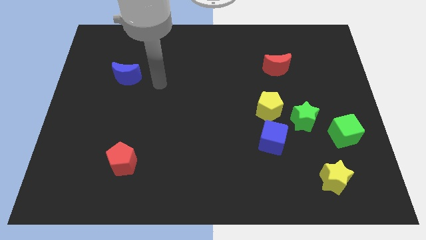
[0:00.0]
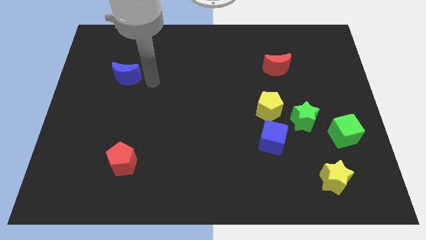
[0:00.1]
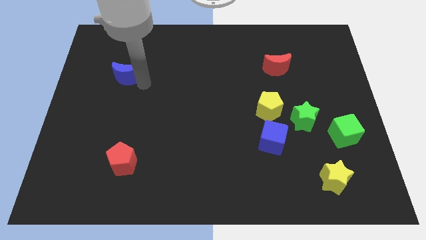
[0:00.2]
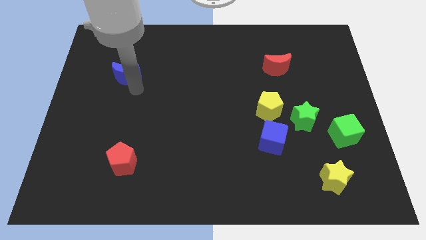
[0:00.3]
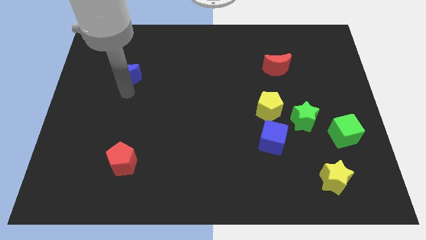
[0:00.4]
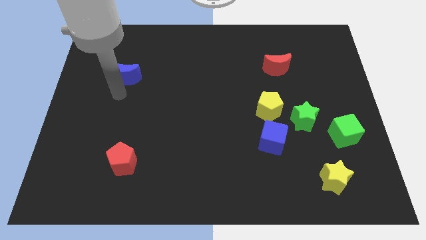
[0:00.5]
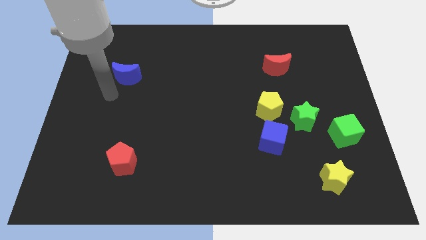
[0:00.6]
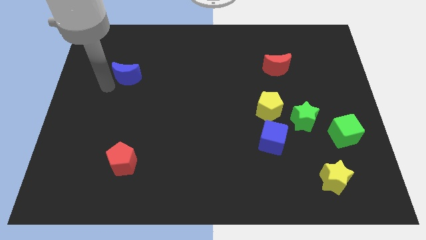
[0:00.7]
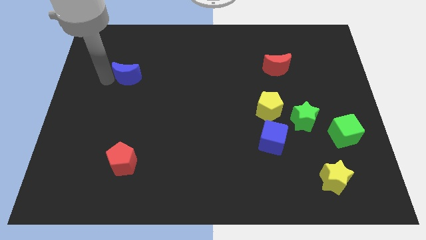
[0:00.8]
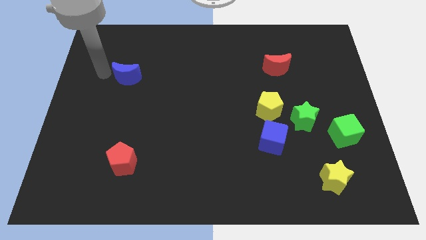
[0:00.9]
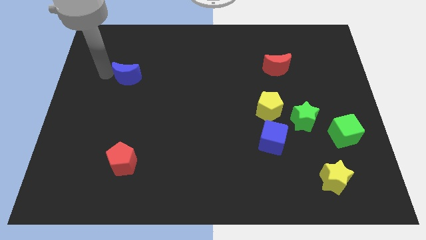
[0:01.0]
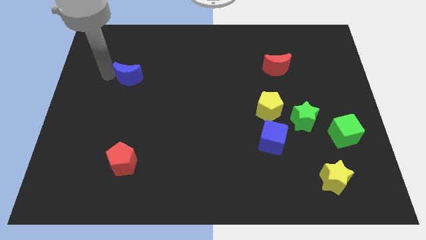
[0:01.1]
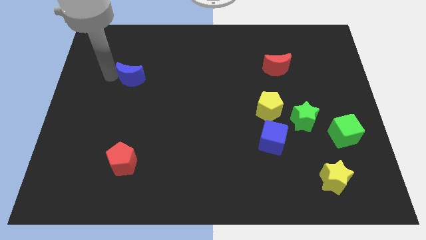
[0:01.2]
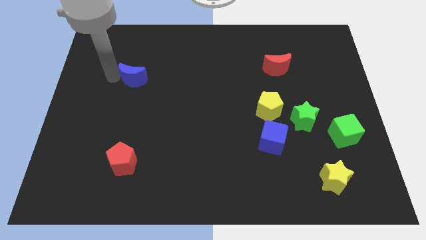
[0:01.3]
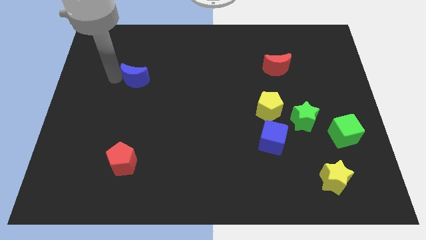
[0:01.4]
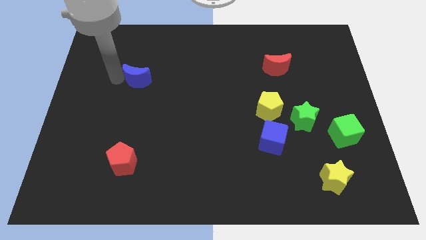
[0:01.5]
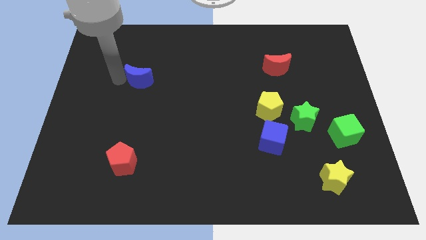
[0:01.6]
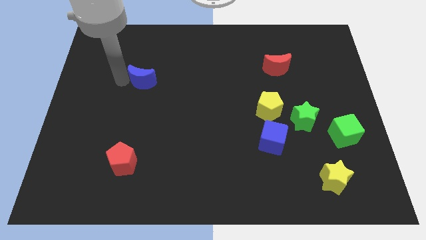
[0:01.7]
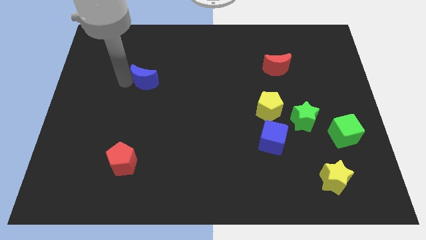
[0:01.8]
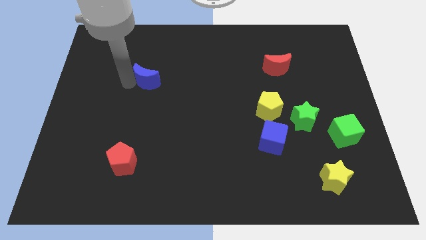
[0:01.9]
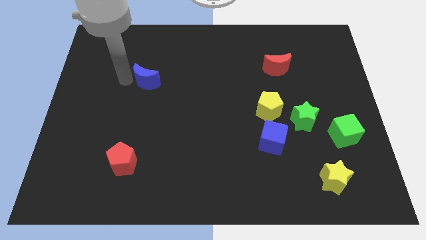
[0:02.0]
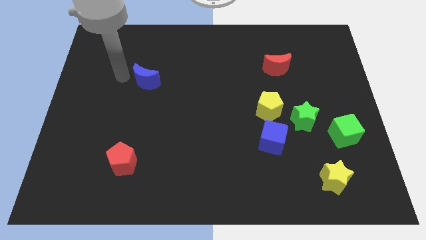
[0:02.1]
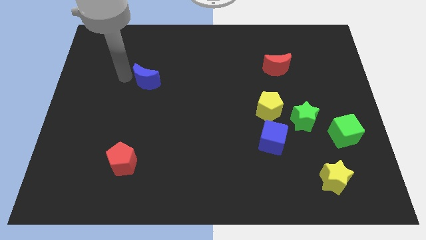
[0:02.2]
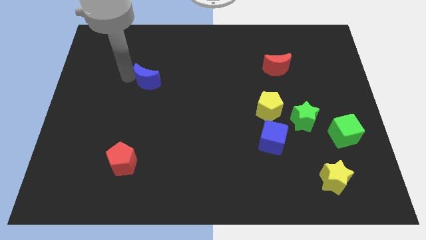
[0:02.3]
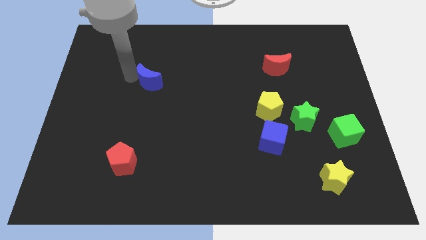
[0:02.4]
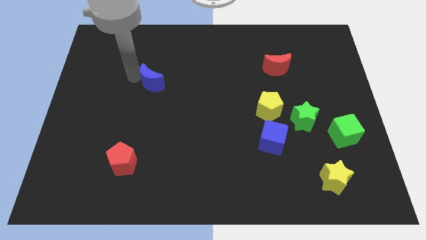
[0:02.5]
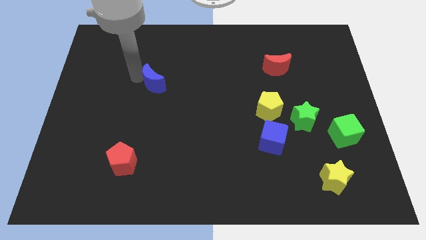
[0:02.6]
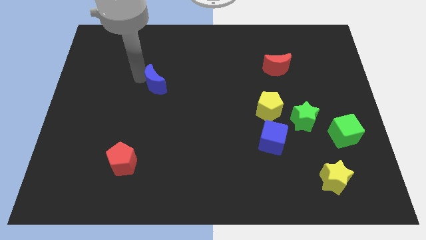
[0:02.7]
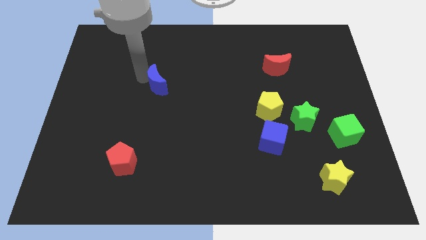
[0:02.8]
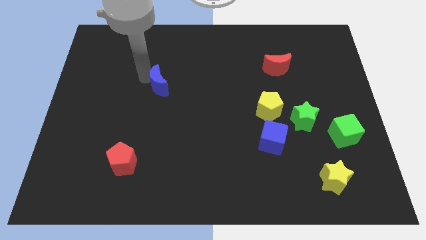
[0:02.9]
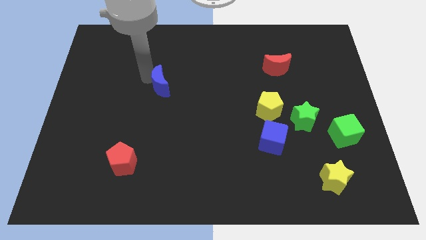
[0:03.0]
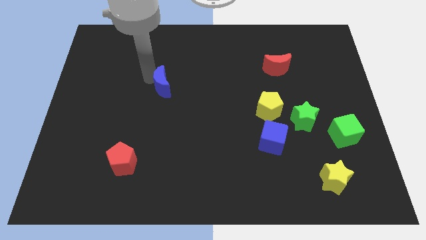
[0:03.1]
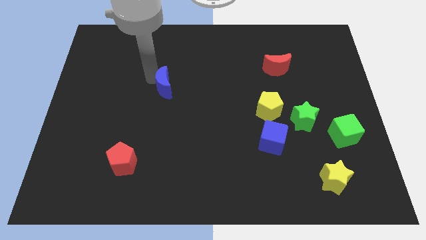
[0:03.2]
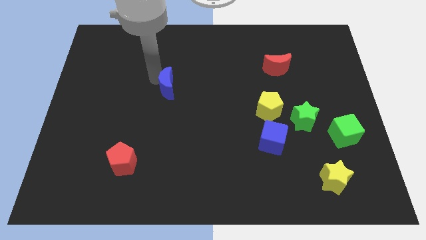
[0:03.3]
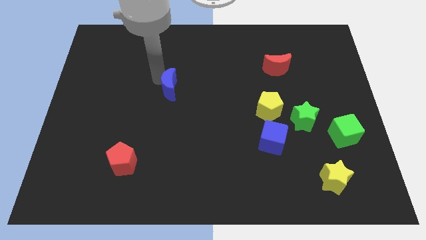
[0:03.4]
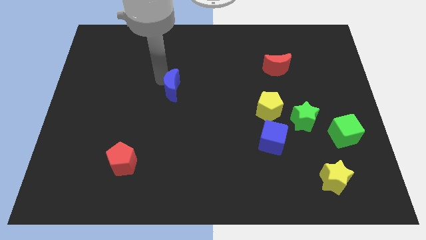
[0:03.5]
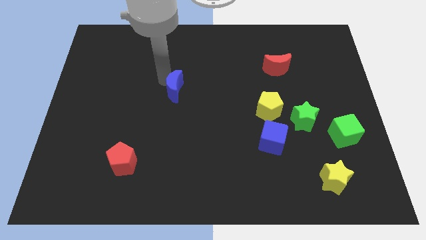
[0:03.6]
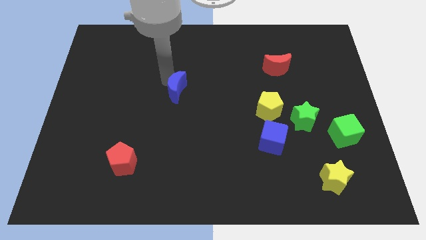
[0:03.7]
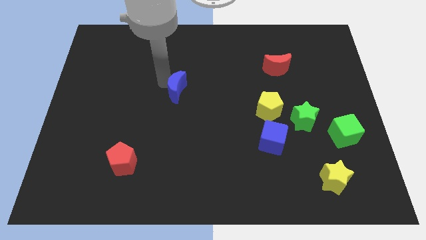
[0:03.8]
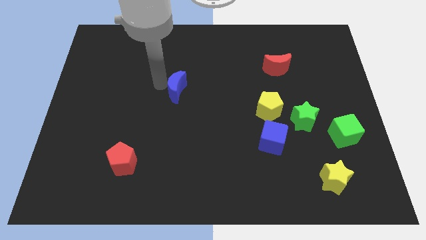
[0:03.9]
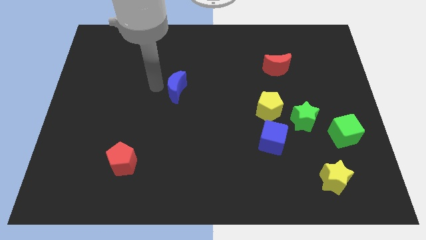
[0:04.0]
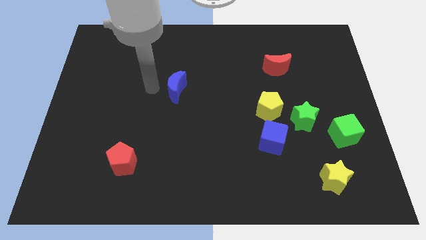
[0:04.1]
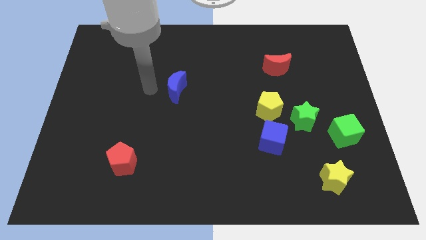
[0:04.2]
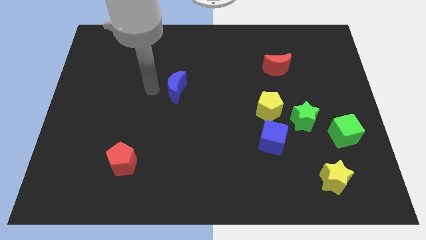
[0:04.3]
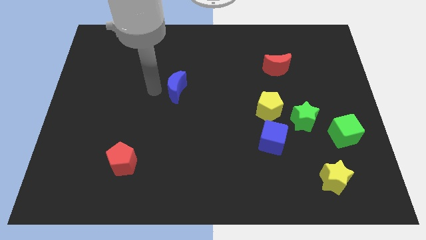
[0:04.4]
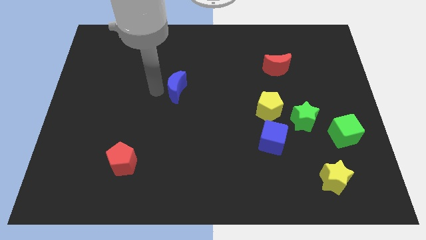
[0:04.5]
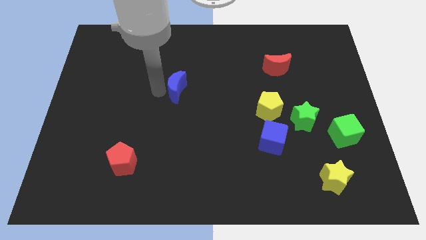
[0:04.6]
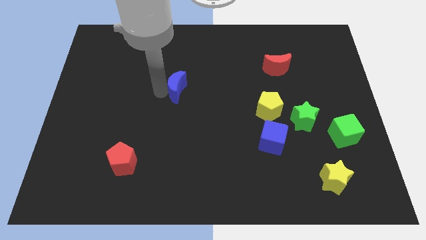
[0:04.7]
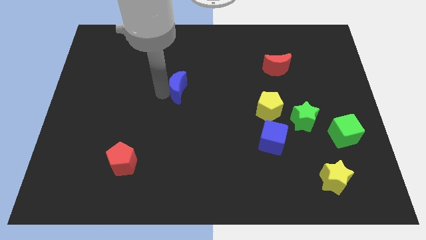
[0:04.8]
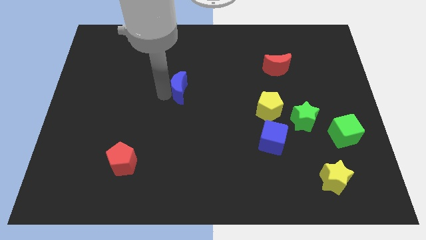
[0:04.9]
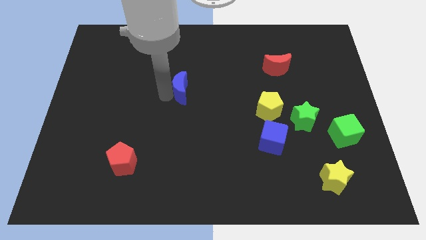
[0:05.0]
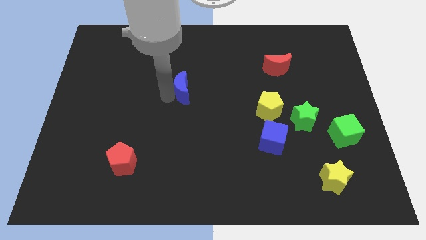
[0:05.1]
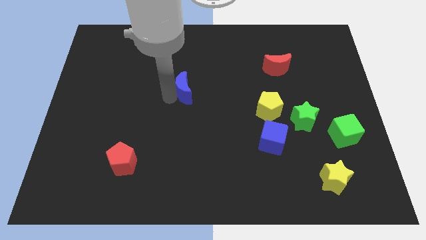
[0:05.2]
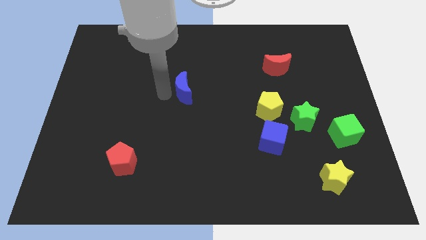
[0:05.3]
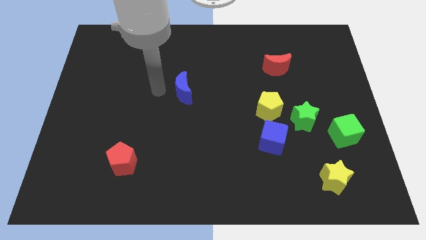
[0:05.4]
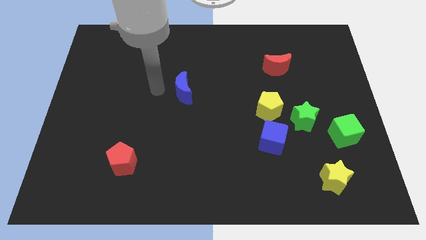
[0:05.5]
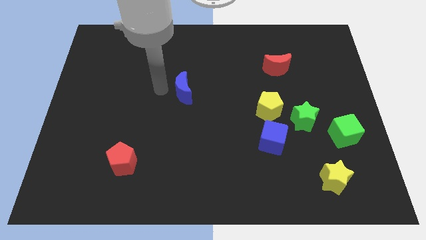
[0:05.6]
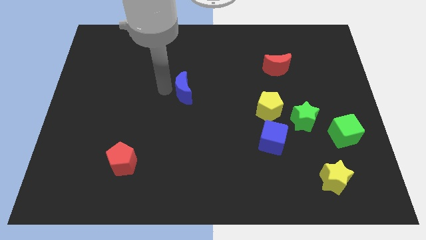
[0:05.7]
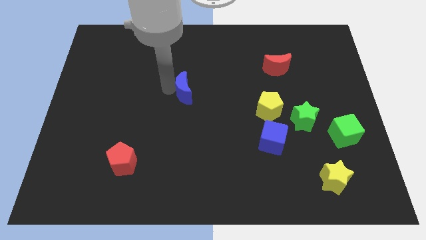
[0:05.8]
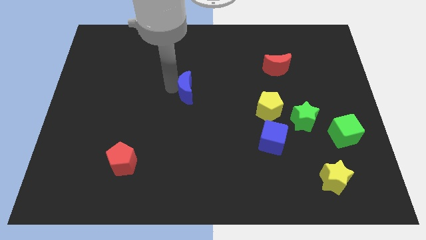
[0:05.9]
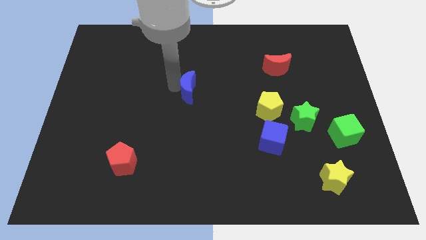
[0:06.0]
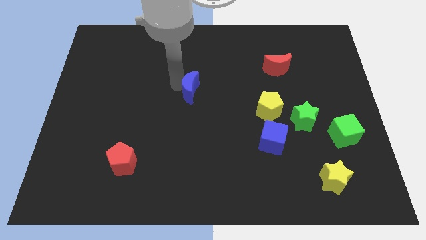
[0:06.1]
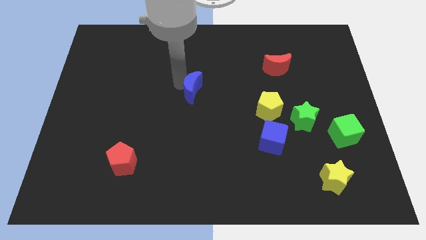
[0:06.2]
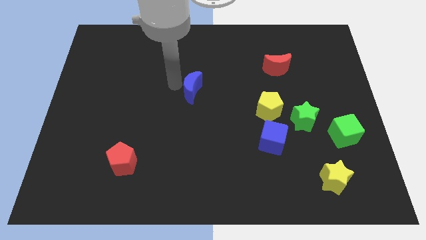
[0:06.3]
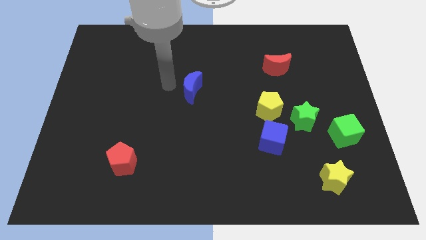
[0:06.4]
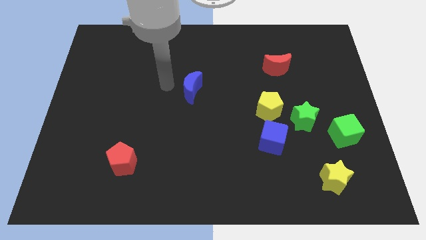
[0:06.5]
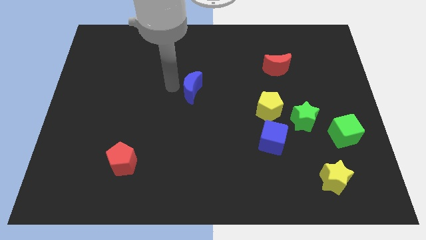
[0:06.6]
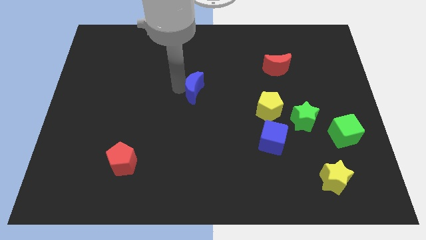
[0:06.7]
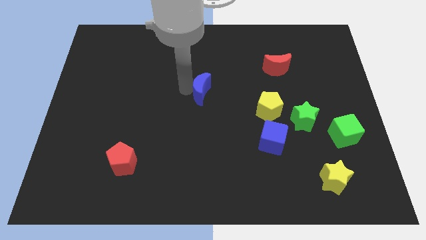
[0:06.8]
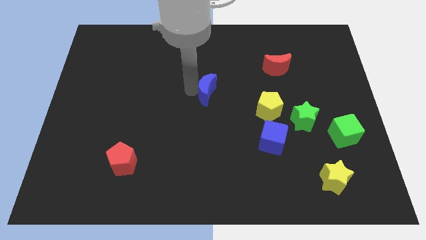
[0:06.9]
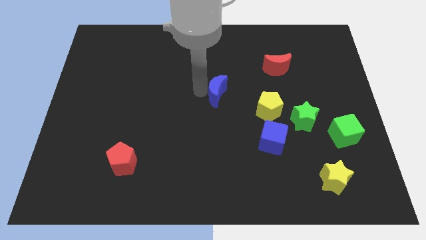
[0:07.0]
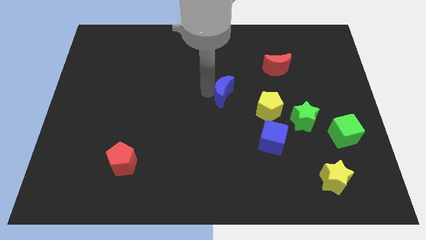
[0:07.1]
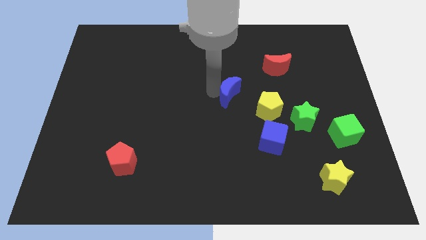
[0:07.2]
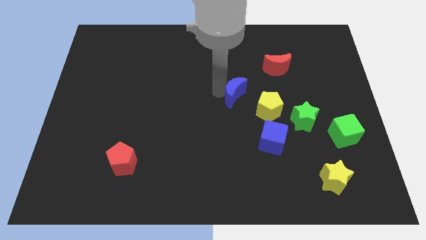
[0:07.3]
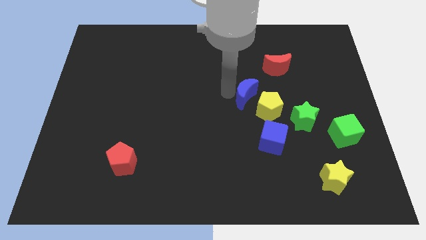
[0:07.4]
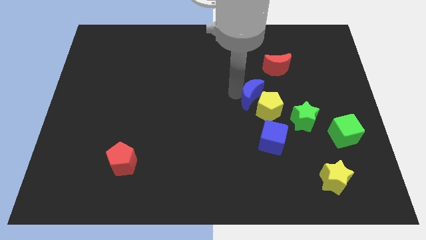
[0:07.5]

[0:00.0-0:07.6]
push the blue moon towards the yellow pentagon
